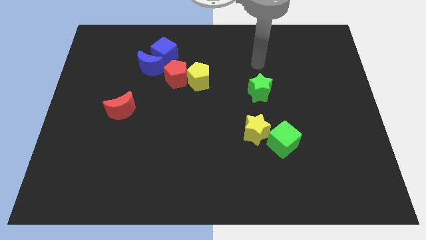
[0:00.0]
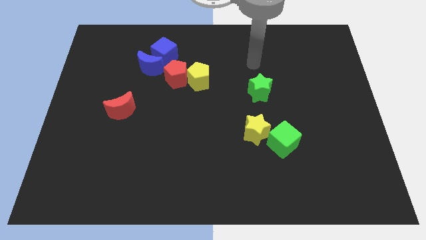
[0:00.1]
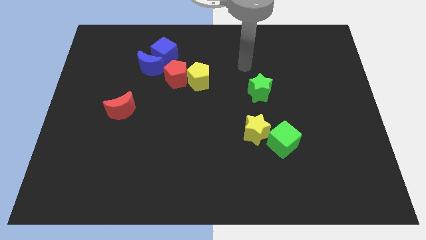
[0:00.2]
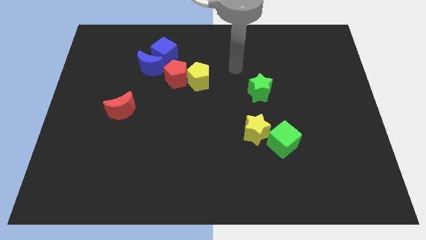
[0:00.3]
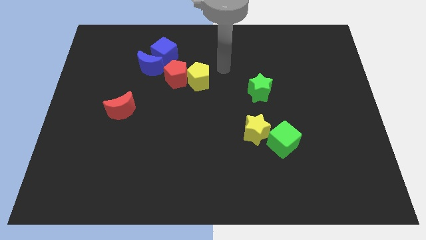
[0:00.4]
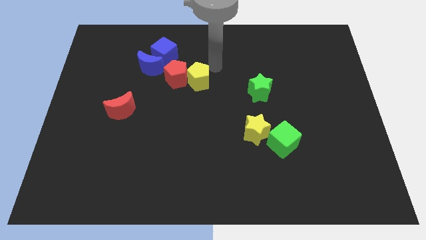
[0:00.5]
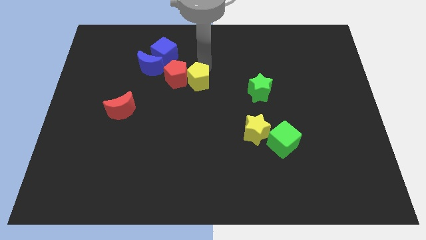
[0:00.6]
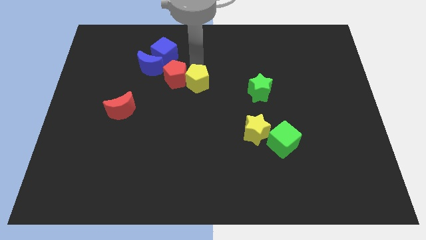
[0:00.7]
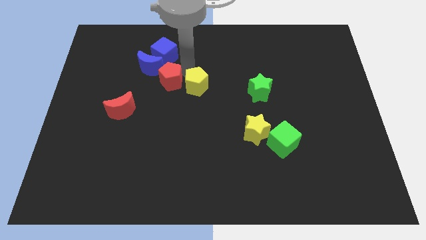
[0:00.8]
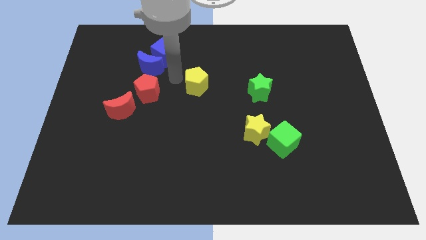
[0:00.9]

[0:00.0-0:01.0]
move the yellow pentagon away from the red pentagon

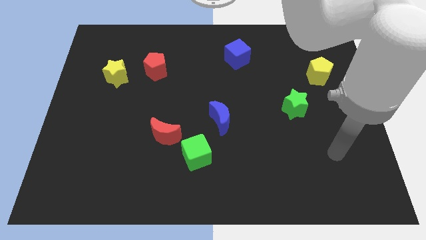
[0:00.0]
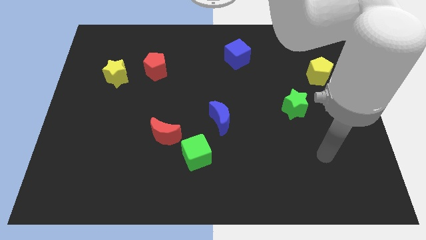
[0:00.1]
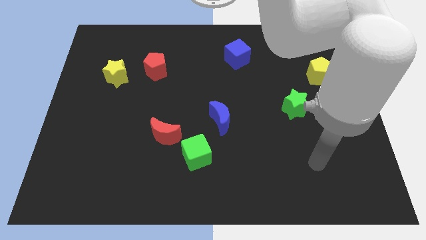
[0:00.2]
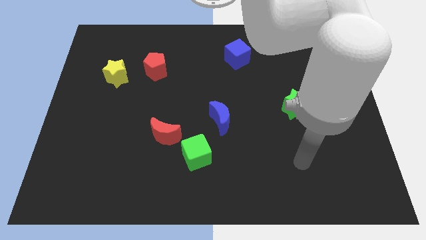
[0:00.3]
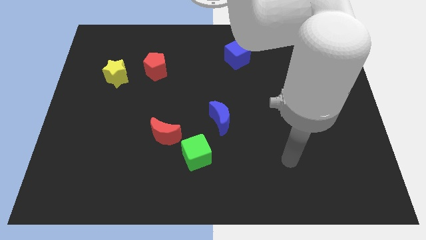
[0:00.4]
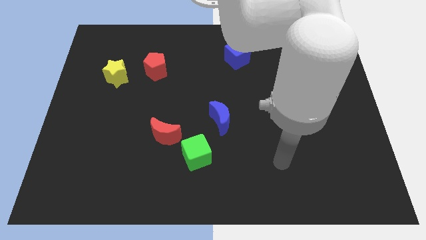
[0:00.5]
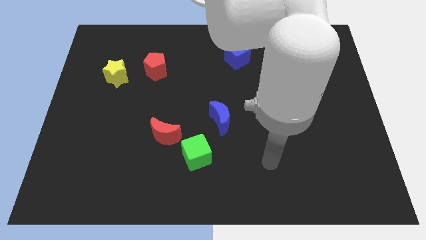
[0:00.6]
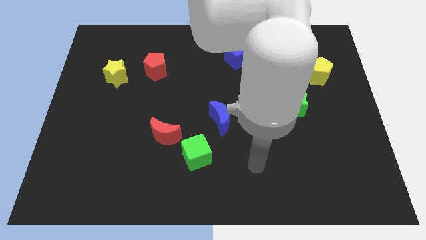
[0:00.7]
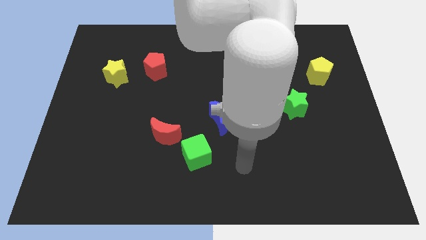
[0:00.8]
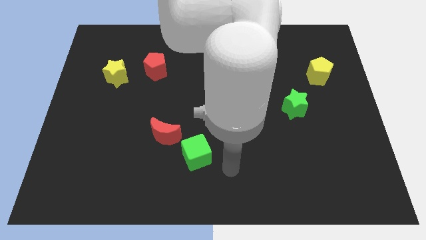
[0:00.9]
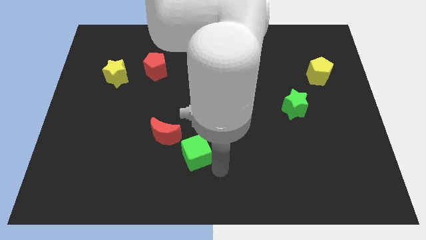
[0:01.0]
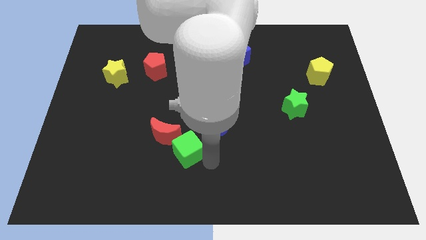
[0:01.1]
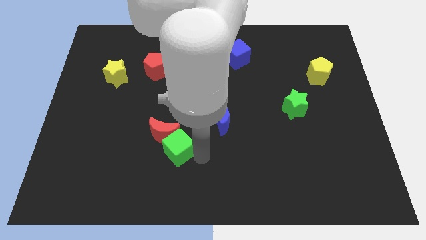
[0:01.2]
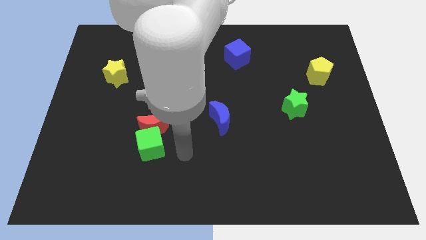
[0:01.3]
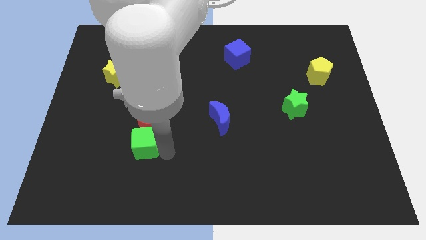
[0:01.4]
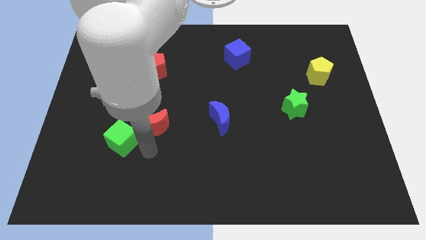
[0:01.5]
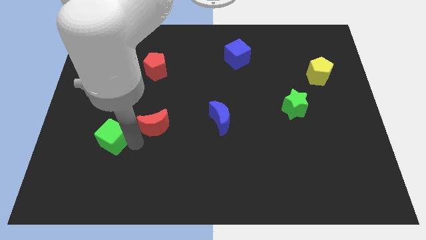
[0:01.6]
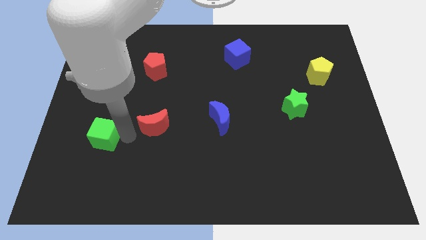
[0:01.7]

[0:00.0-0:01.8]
separate the red moon from the green cube

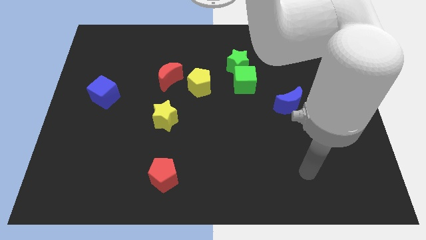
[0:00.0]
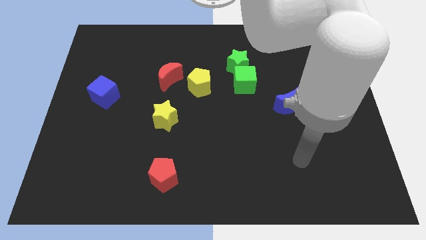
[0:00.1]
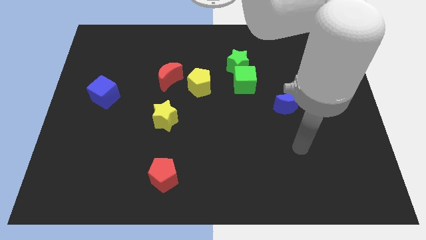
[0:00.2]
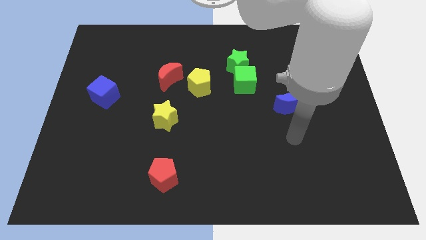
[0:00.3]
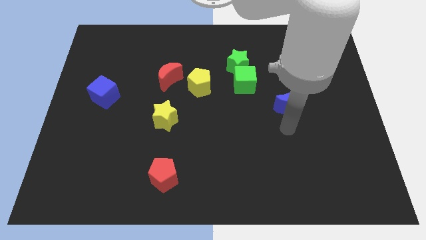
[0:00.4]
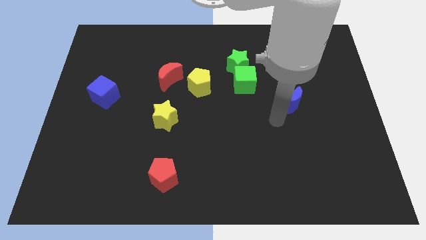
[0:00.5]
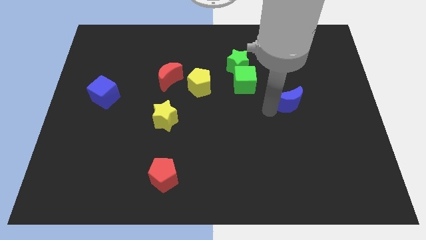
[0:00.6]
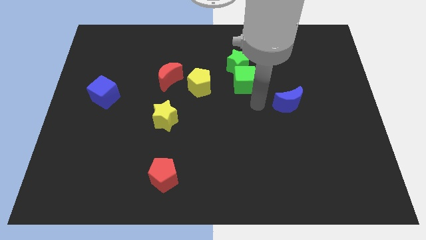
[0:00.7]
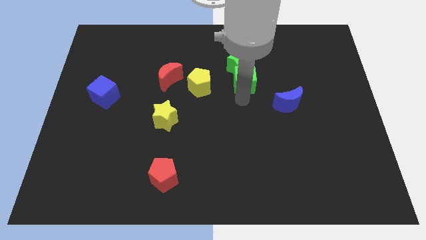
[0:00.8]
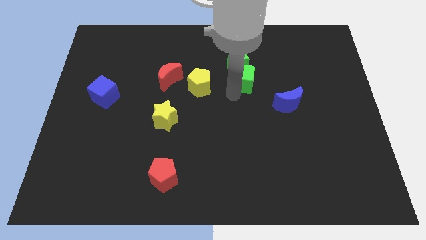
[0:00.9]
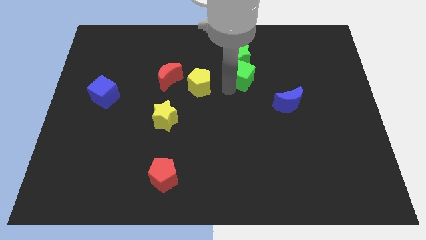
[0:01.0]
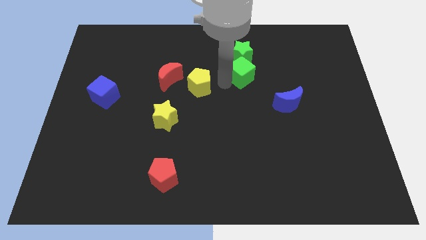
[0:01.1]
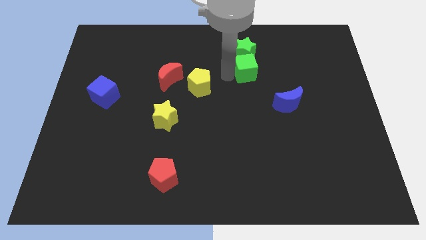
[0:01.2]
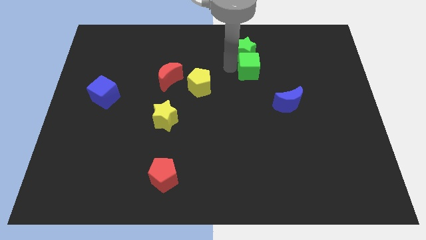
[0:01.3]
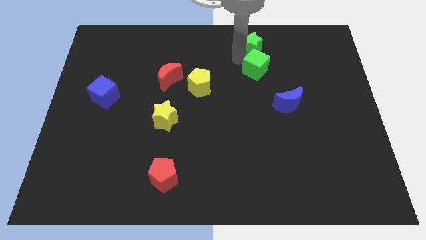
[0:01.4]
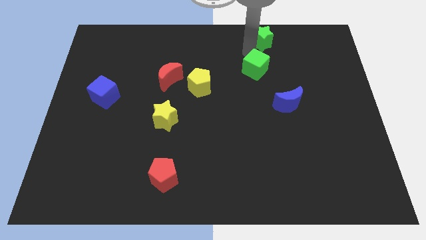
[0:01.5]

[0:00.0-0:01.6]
pull the green cube apart from the green star

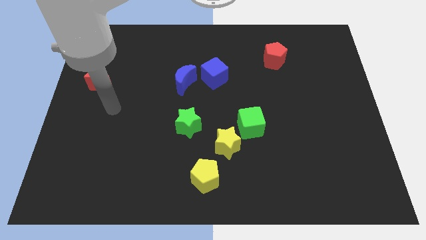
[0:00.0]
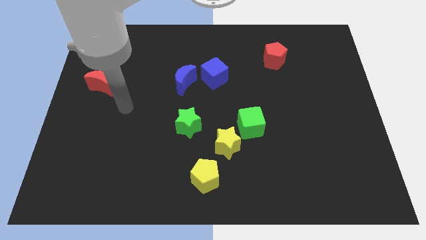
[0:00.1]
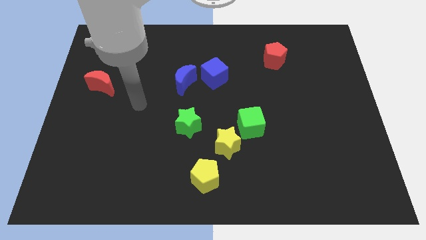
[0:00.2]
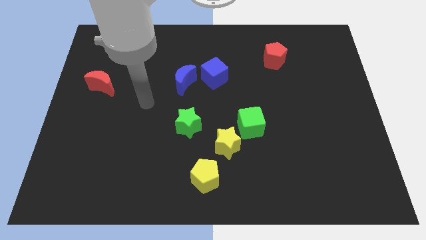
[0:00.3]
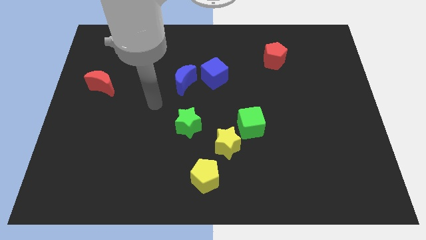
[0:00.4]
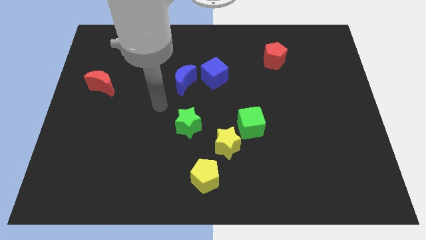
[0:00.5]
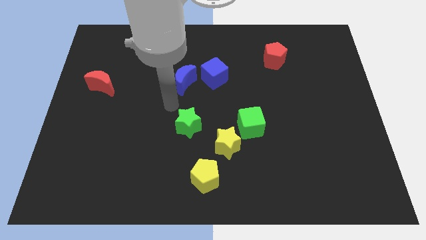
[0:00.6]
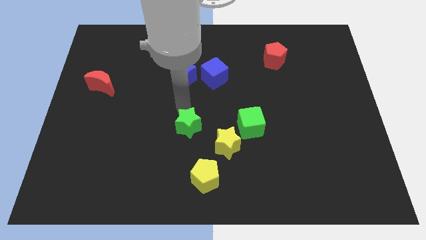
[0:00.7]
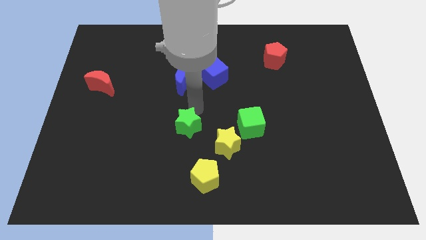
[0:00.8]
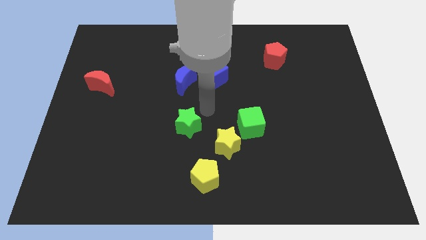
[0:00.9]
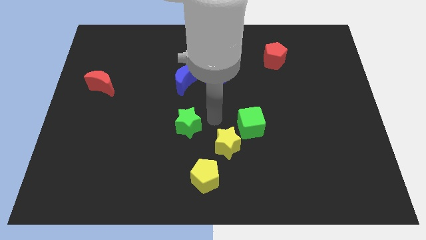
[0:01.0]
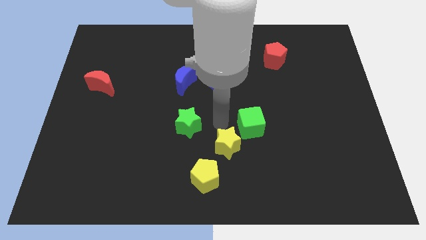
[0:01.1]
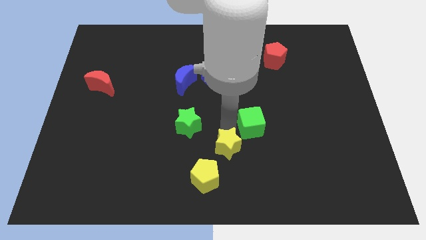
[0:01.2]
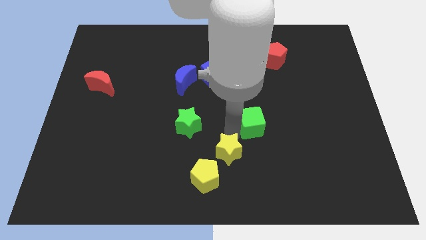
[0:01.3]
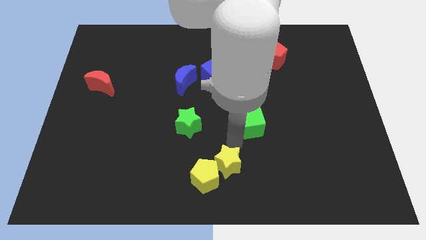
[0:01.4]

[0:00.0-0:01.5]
separate the green cube from the yellow star

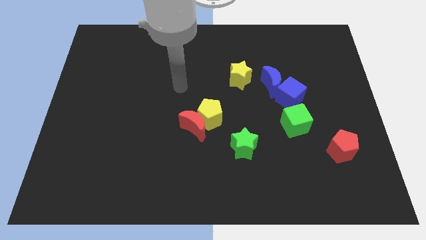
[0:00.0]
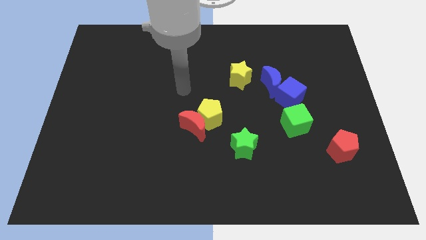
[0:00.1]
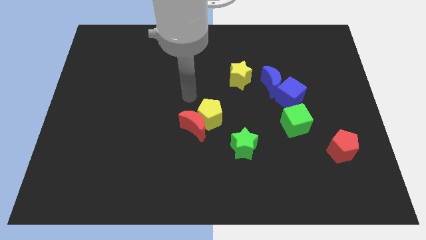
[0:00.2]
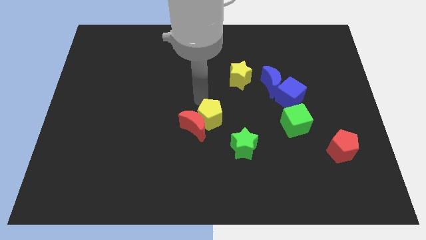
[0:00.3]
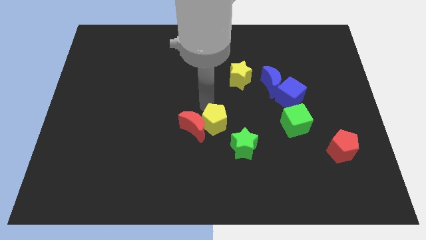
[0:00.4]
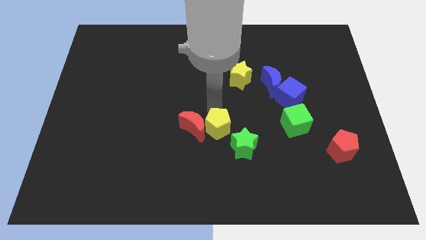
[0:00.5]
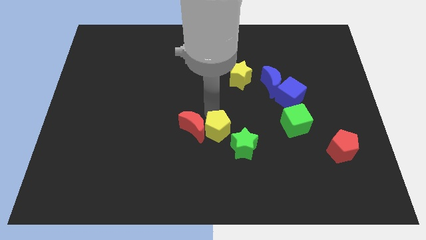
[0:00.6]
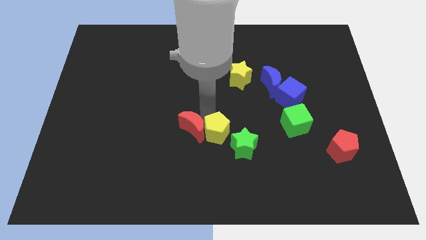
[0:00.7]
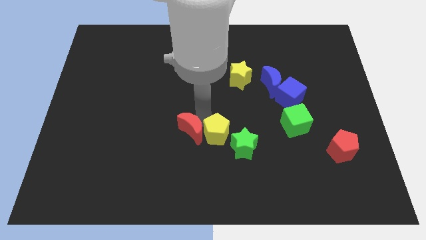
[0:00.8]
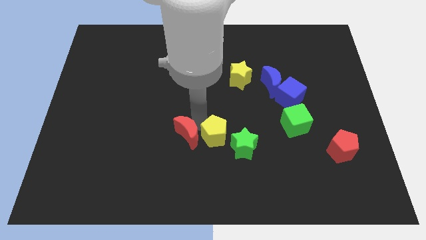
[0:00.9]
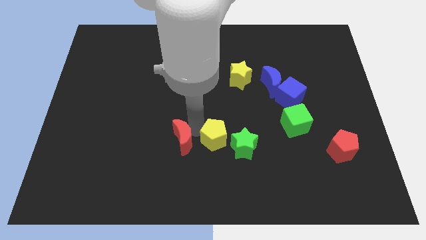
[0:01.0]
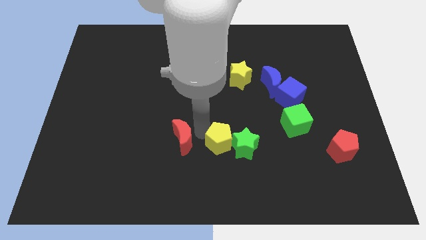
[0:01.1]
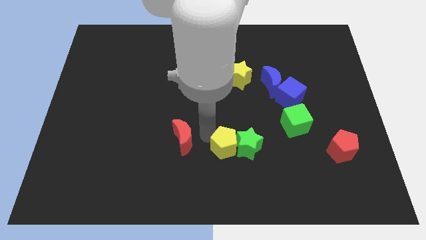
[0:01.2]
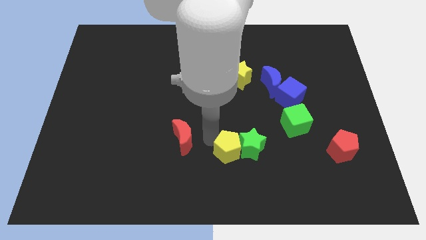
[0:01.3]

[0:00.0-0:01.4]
separate the red moon from the yellow pentagon

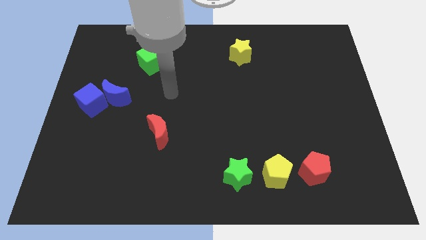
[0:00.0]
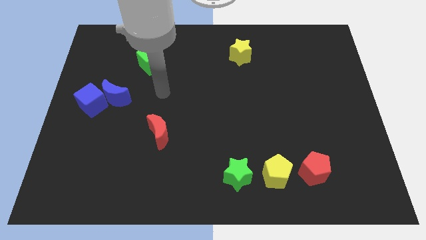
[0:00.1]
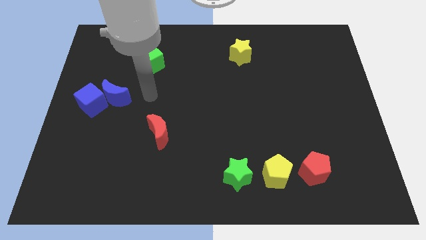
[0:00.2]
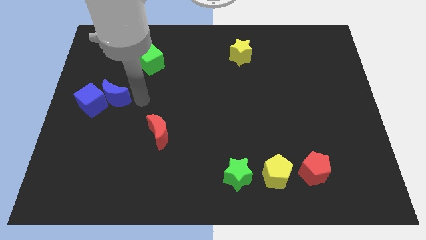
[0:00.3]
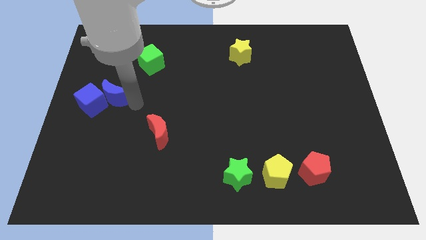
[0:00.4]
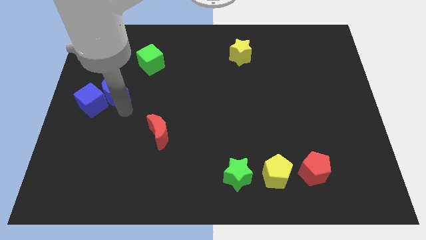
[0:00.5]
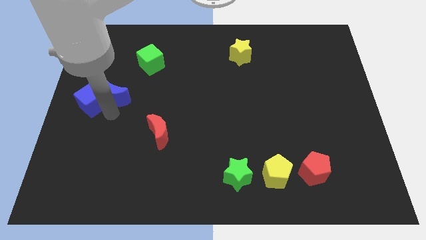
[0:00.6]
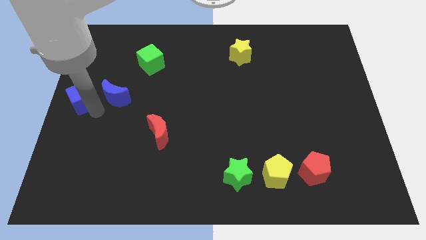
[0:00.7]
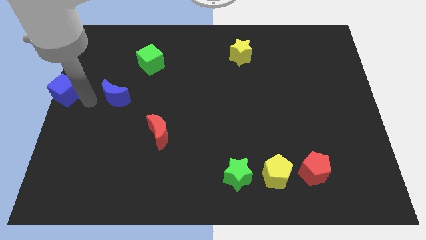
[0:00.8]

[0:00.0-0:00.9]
pull the blue moon apart from the blue cube

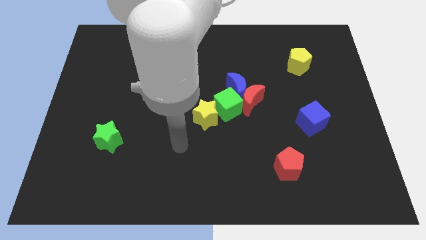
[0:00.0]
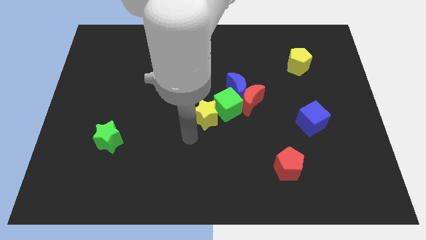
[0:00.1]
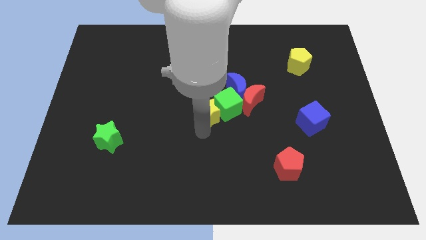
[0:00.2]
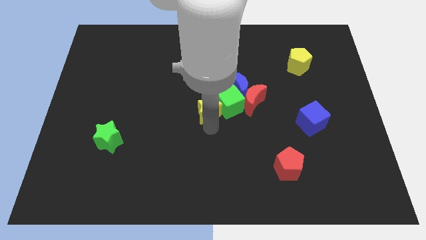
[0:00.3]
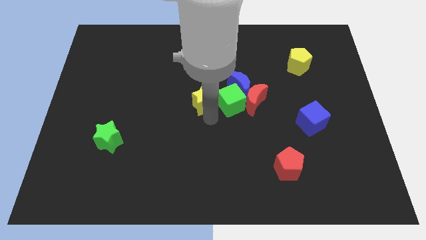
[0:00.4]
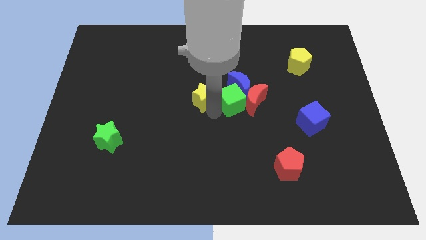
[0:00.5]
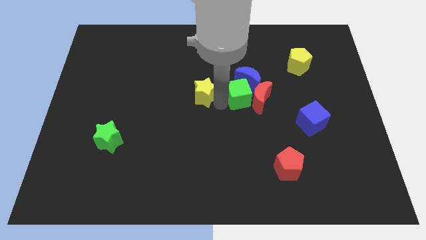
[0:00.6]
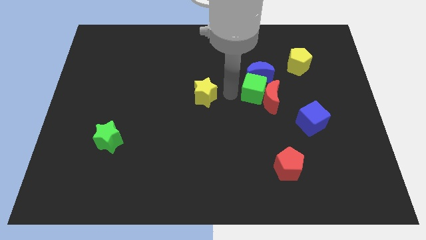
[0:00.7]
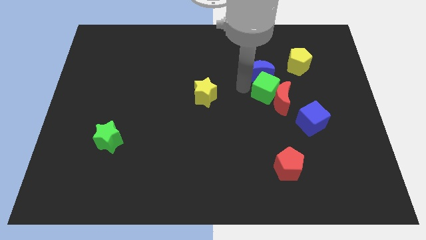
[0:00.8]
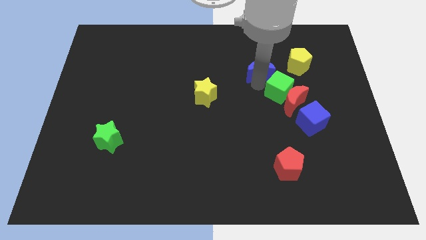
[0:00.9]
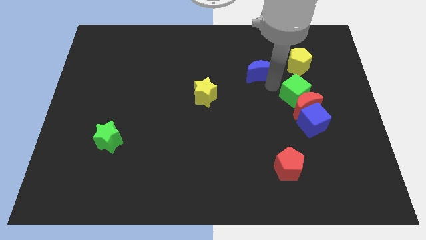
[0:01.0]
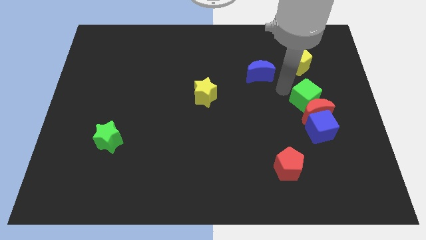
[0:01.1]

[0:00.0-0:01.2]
separate the red moon from the blue moon and green cube
